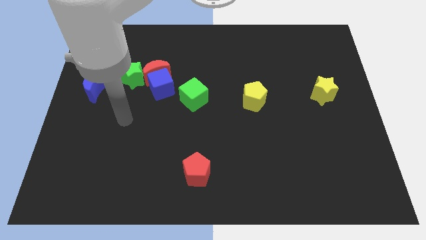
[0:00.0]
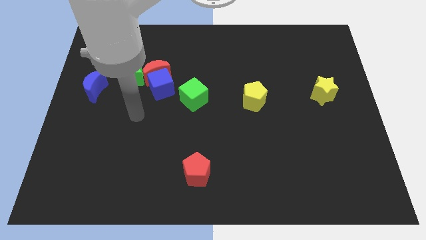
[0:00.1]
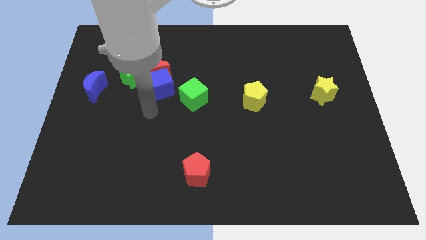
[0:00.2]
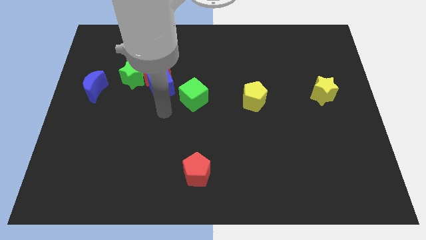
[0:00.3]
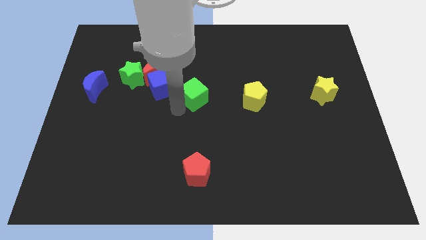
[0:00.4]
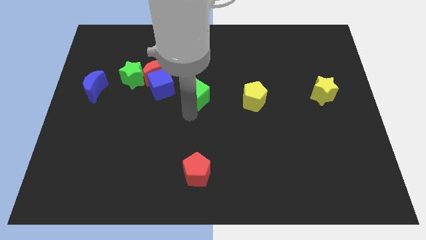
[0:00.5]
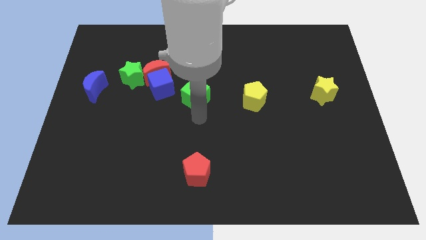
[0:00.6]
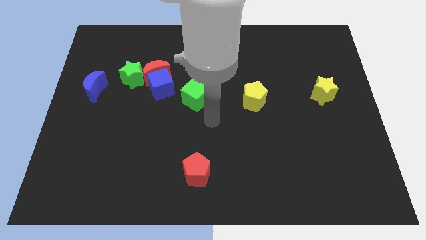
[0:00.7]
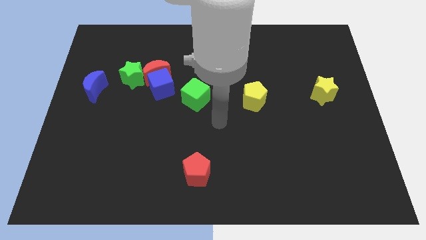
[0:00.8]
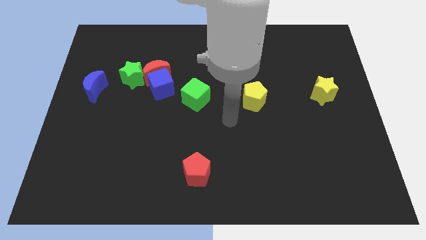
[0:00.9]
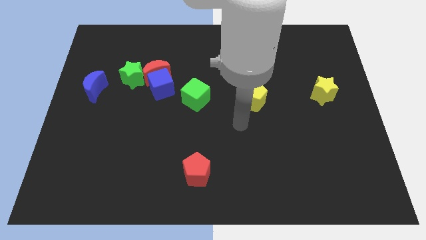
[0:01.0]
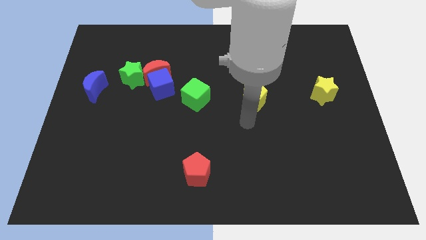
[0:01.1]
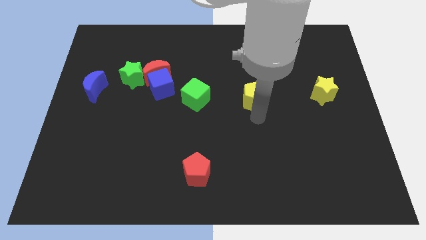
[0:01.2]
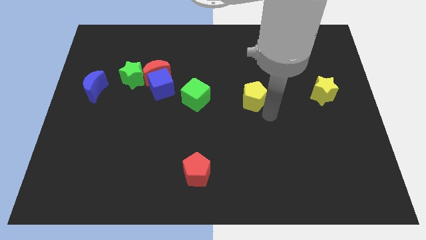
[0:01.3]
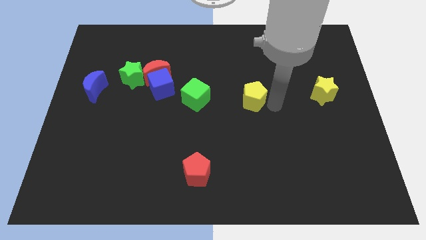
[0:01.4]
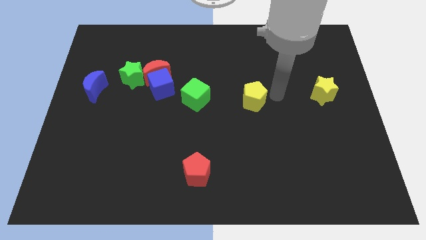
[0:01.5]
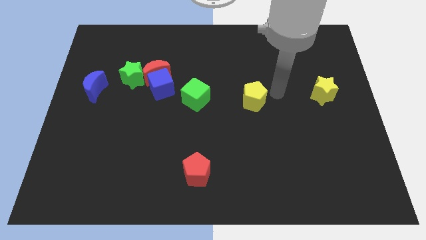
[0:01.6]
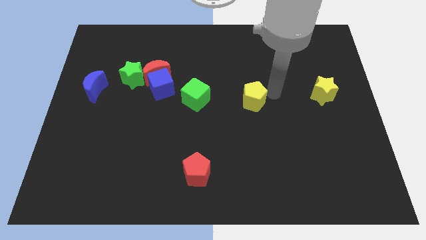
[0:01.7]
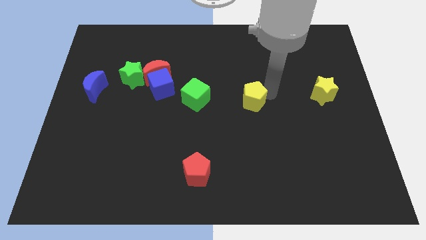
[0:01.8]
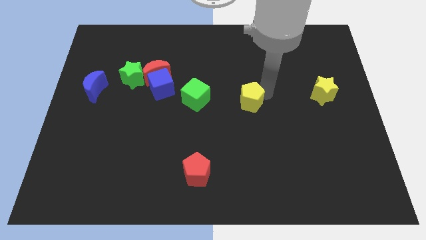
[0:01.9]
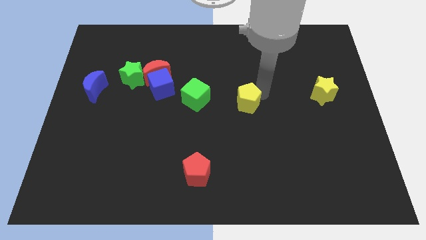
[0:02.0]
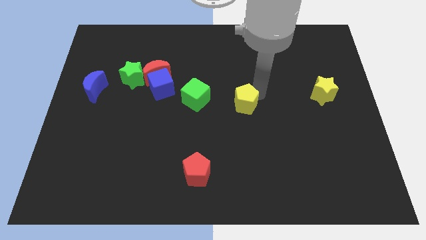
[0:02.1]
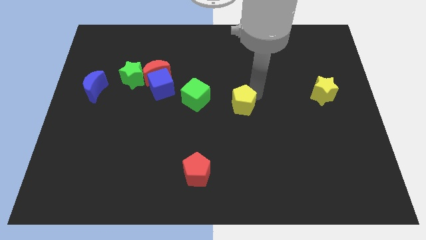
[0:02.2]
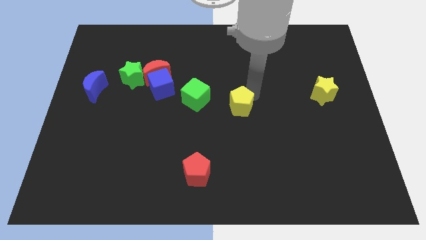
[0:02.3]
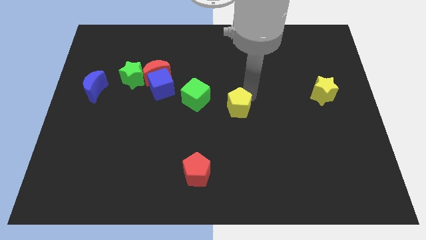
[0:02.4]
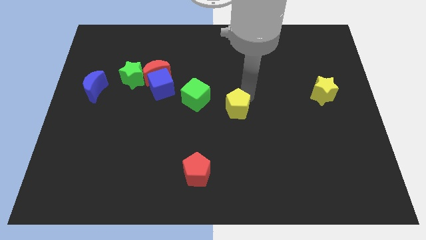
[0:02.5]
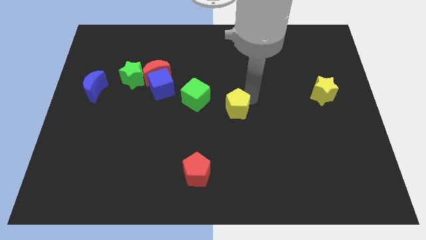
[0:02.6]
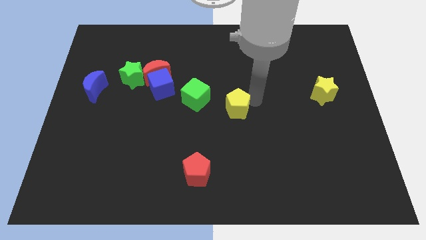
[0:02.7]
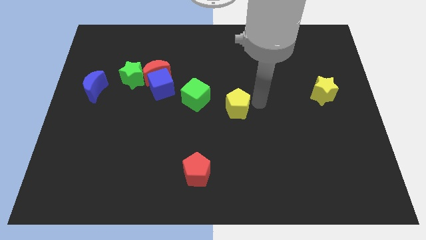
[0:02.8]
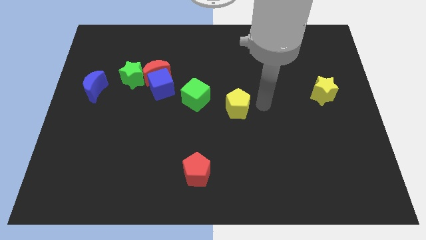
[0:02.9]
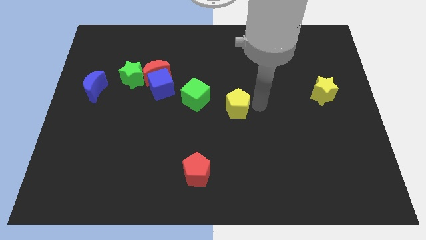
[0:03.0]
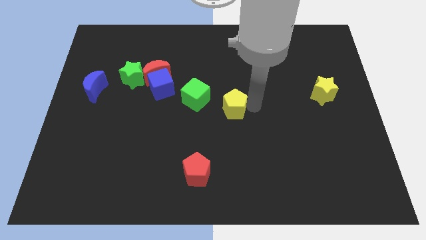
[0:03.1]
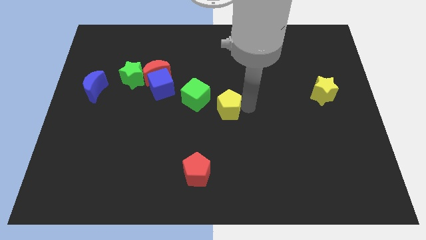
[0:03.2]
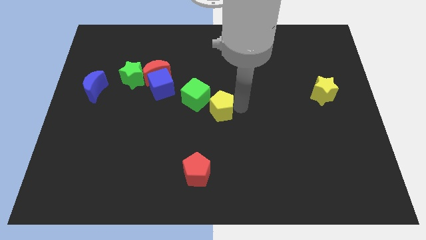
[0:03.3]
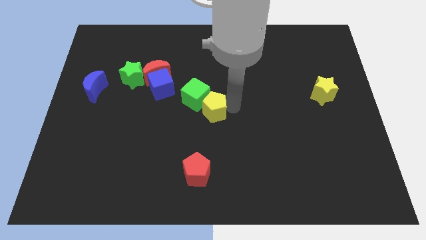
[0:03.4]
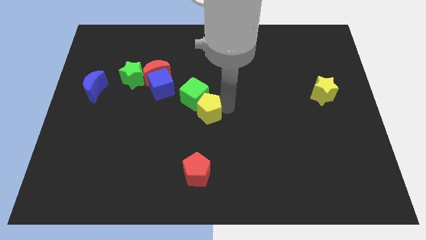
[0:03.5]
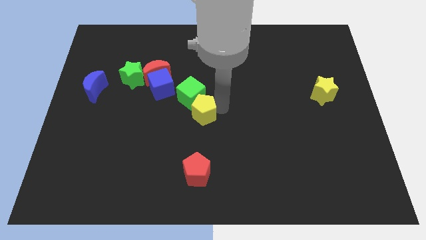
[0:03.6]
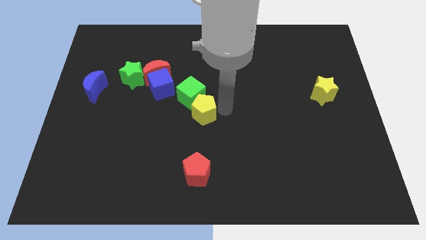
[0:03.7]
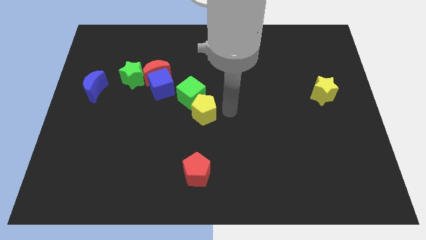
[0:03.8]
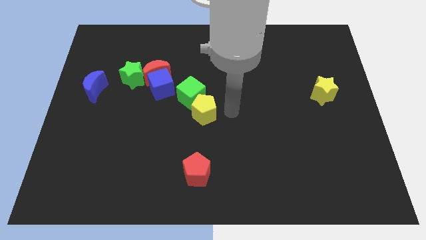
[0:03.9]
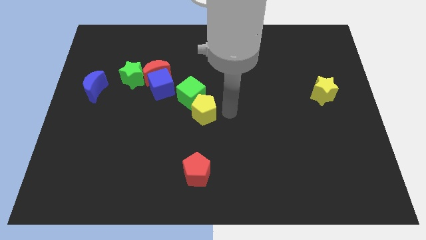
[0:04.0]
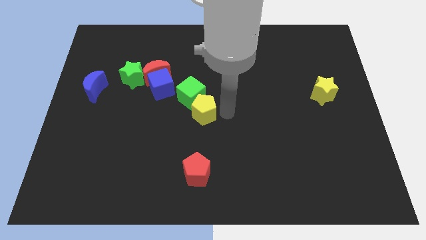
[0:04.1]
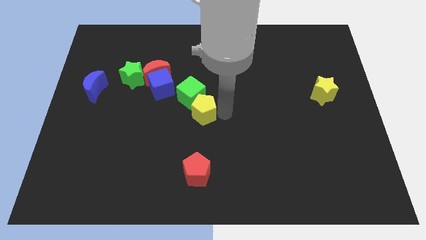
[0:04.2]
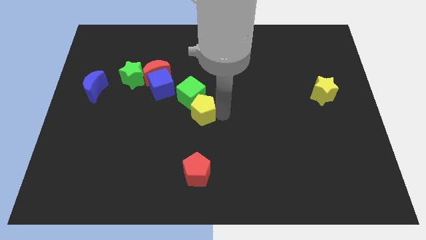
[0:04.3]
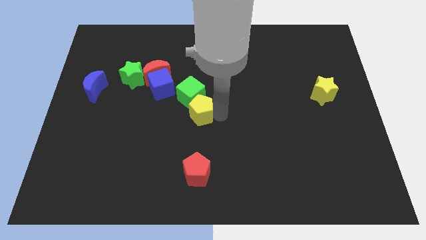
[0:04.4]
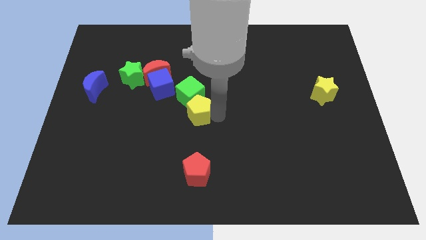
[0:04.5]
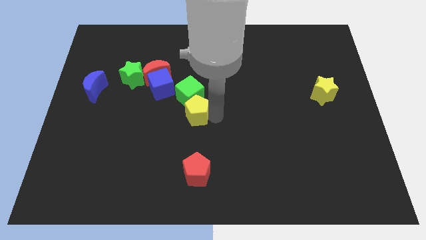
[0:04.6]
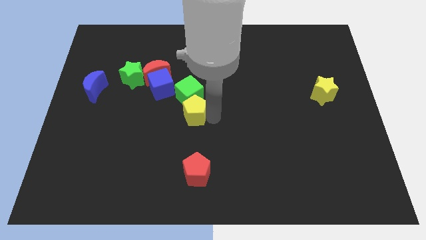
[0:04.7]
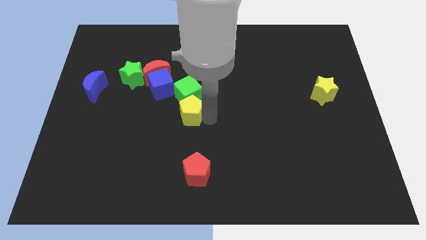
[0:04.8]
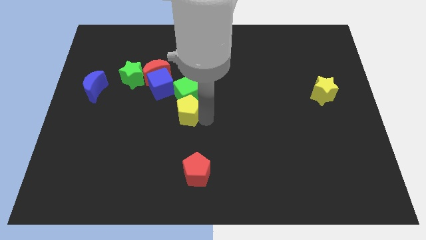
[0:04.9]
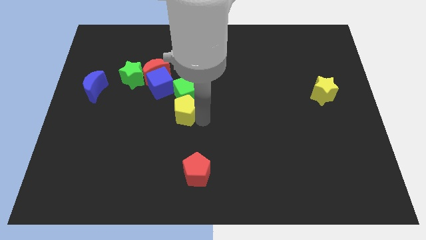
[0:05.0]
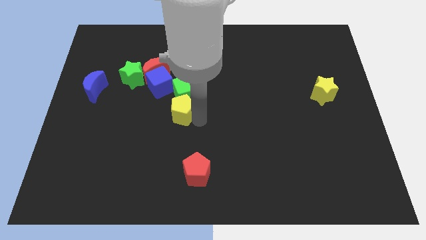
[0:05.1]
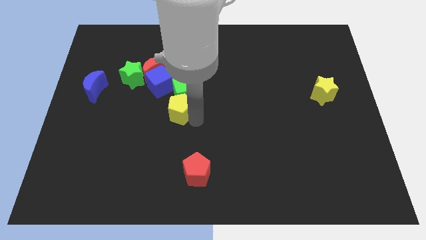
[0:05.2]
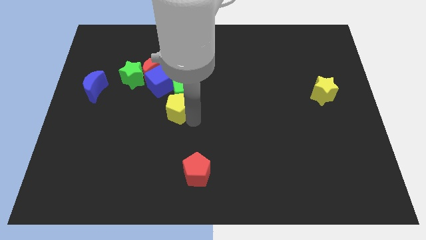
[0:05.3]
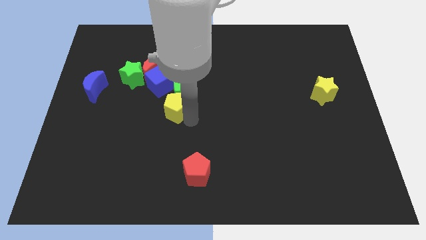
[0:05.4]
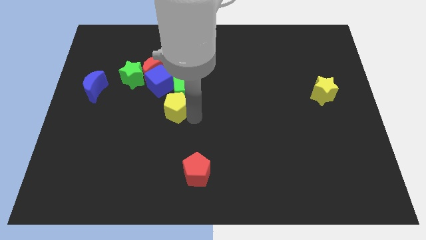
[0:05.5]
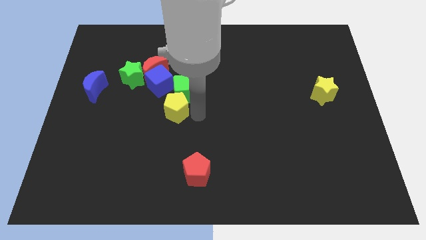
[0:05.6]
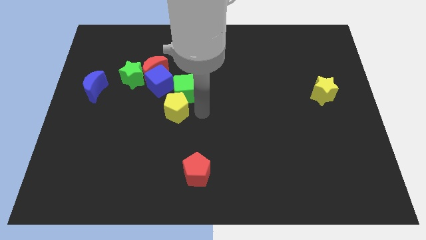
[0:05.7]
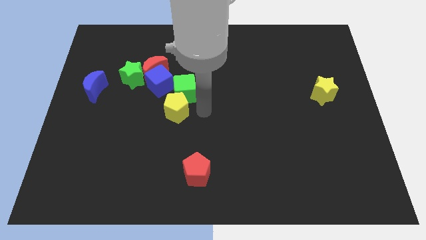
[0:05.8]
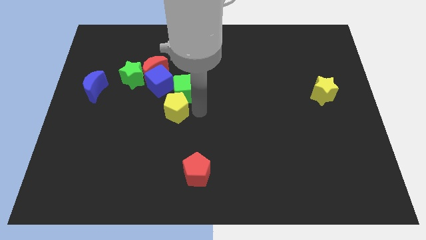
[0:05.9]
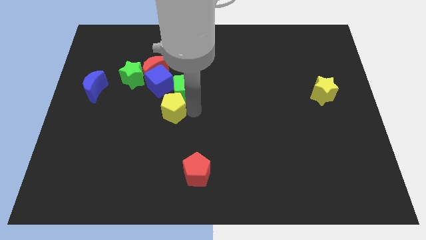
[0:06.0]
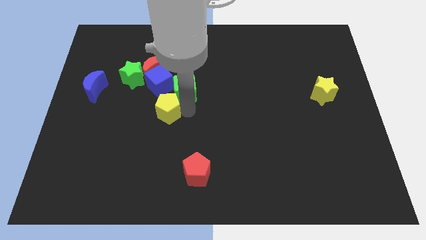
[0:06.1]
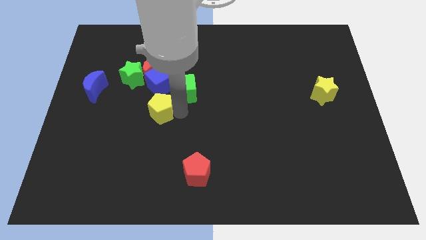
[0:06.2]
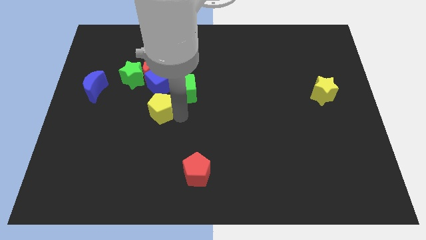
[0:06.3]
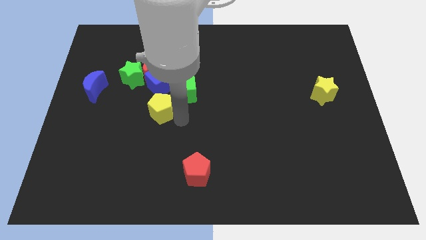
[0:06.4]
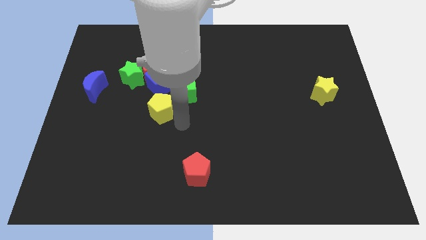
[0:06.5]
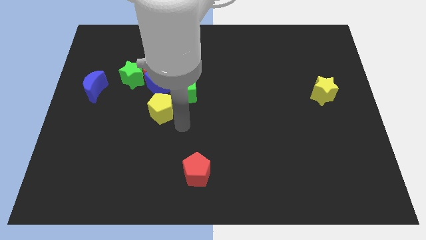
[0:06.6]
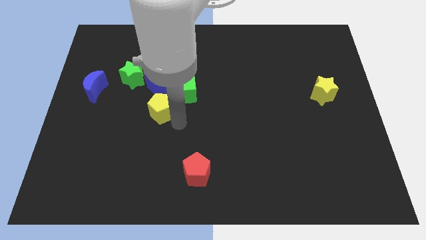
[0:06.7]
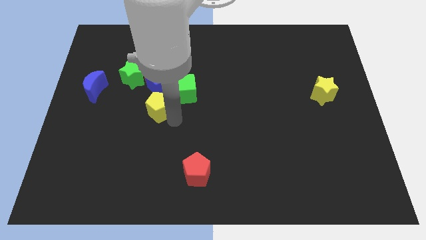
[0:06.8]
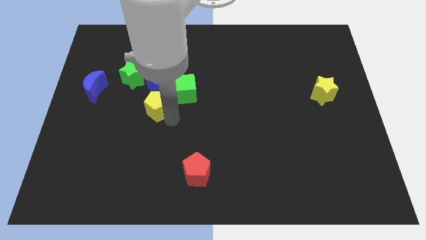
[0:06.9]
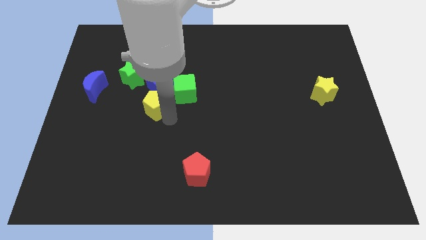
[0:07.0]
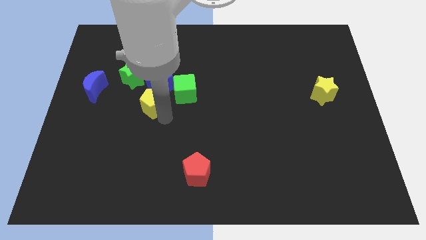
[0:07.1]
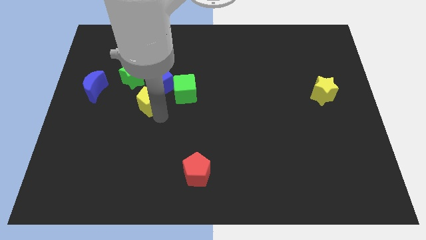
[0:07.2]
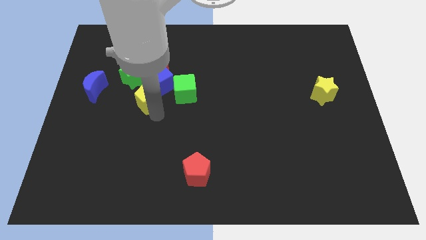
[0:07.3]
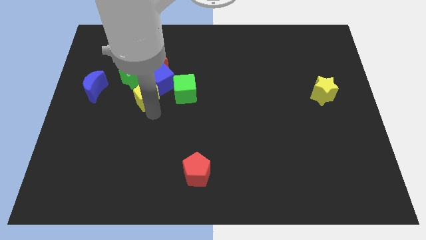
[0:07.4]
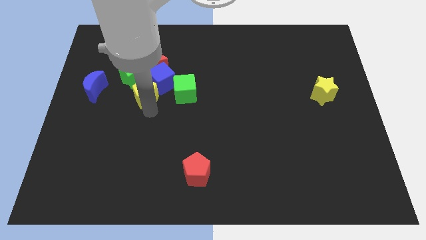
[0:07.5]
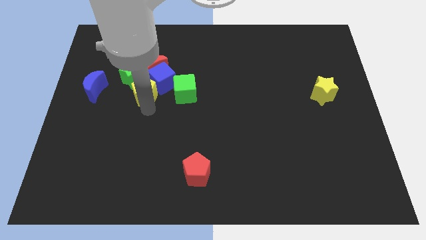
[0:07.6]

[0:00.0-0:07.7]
slide the yellow pentagon close to the green star

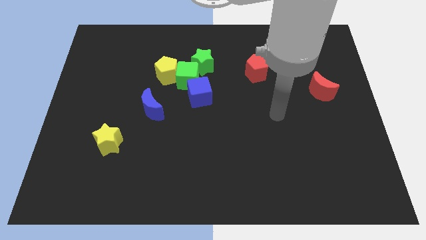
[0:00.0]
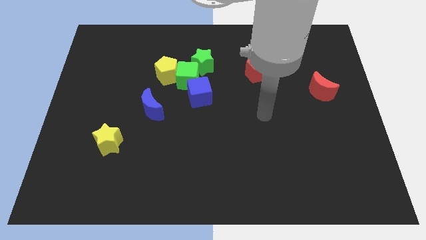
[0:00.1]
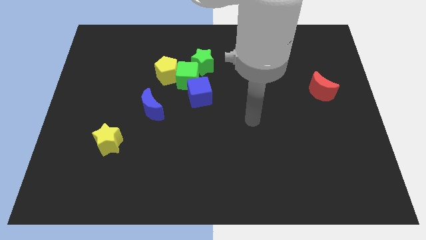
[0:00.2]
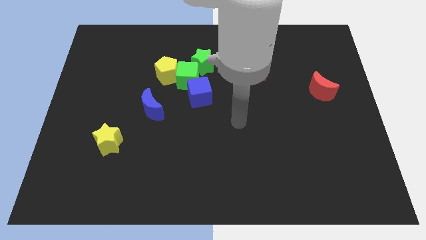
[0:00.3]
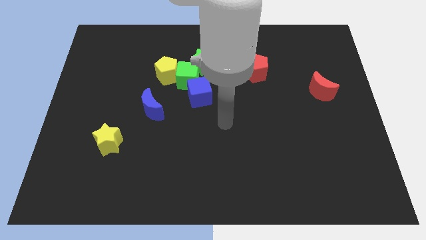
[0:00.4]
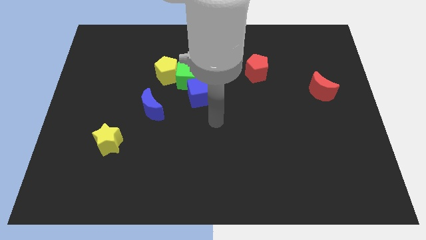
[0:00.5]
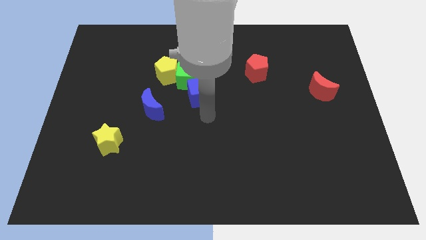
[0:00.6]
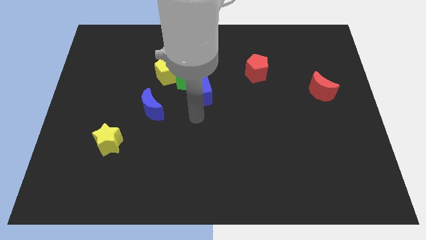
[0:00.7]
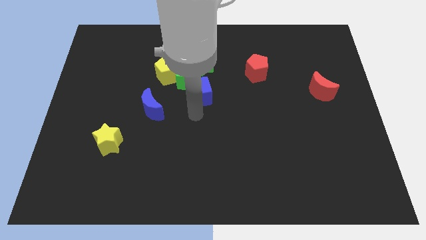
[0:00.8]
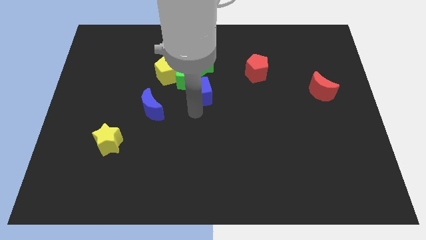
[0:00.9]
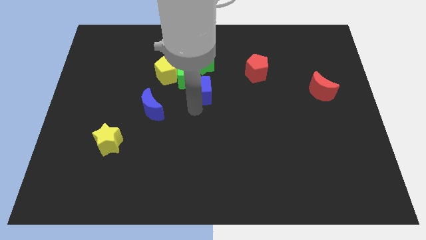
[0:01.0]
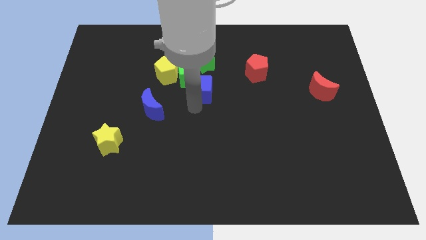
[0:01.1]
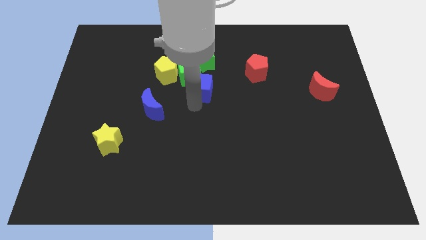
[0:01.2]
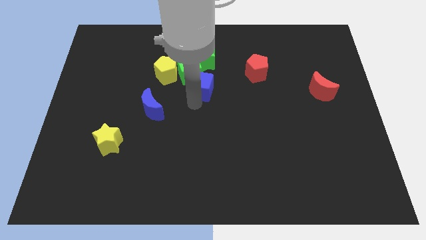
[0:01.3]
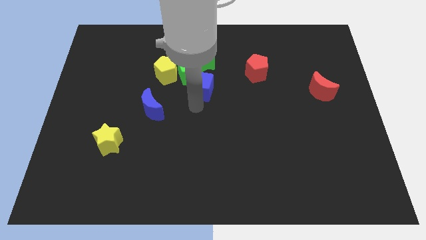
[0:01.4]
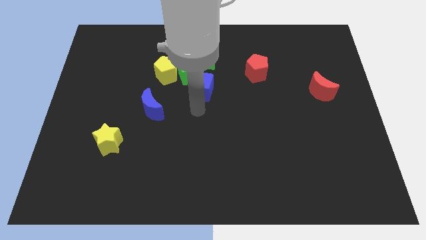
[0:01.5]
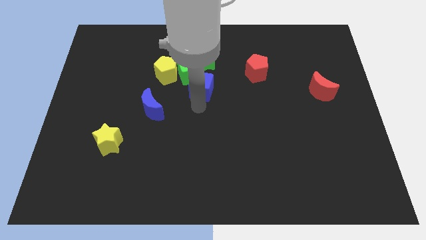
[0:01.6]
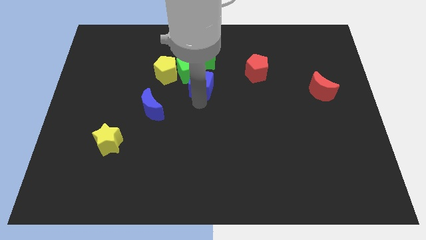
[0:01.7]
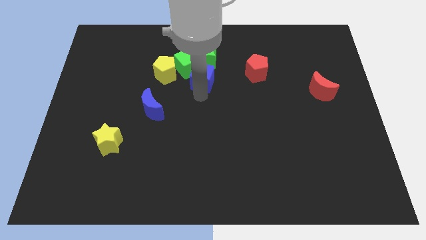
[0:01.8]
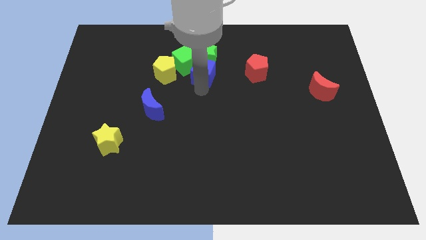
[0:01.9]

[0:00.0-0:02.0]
move the blue cube towards the green star
